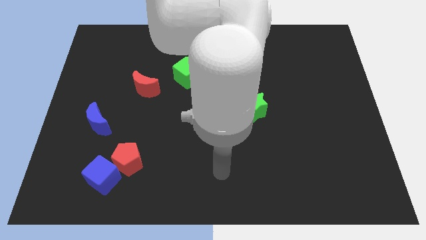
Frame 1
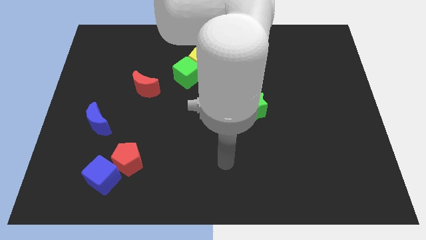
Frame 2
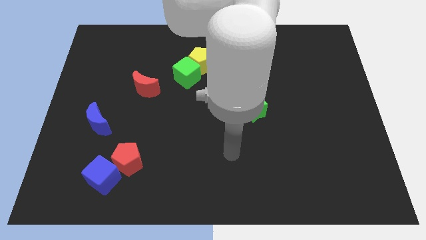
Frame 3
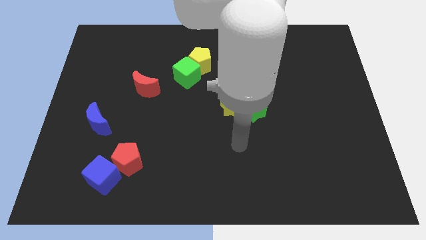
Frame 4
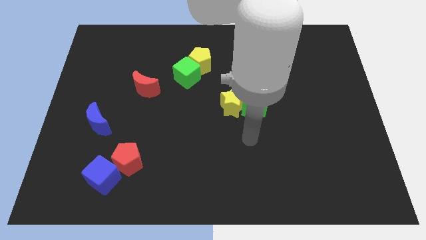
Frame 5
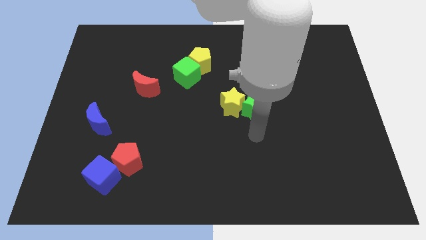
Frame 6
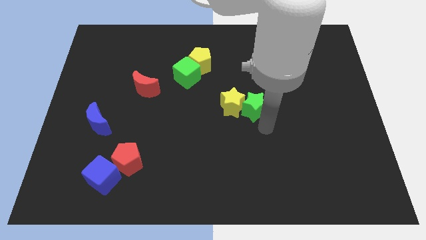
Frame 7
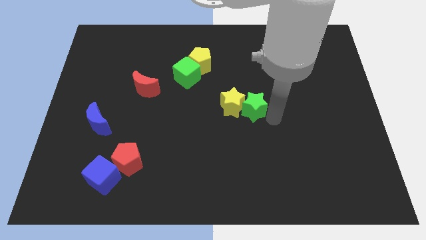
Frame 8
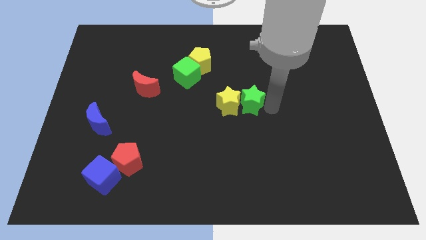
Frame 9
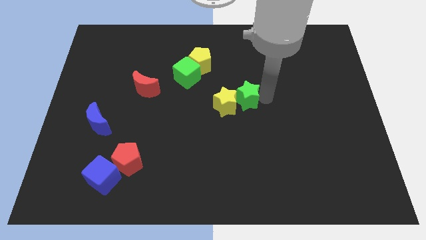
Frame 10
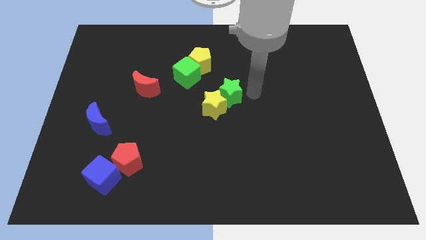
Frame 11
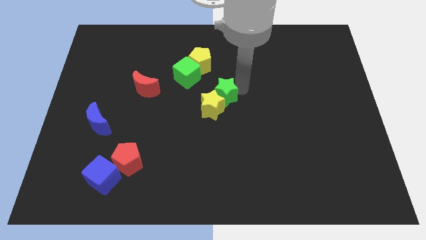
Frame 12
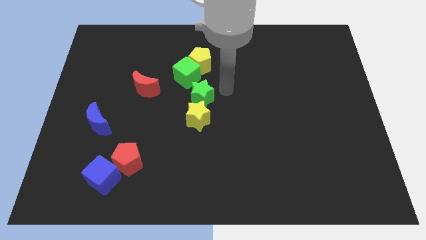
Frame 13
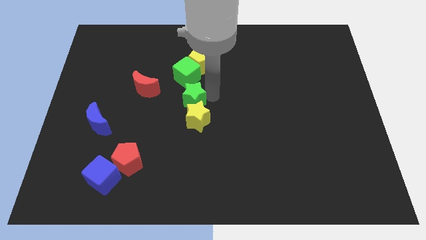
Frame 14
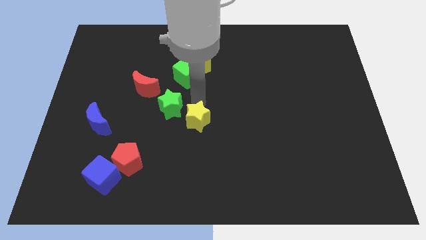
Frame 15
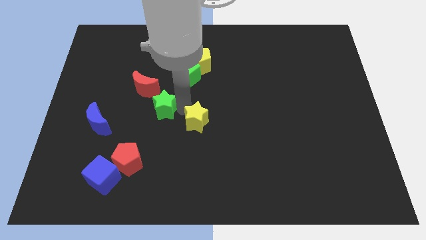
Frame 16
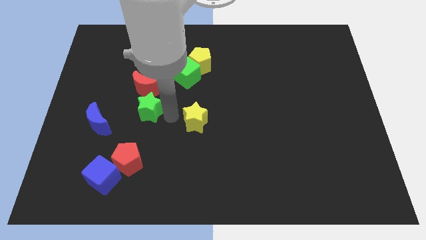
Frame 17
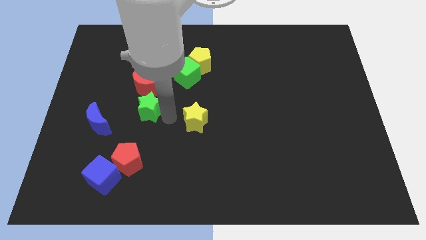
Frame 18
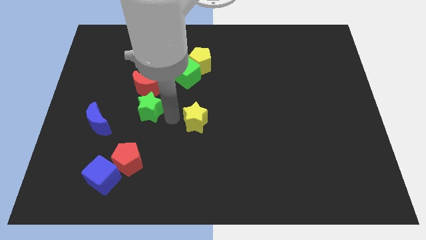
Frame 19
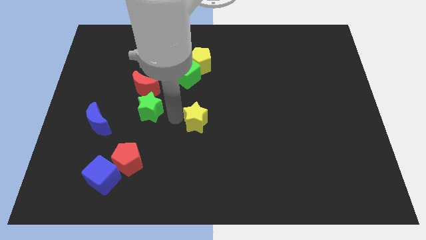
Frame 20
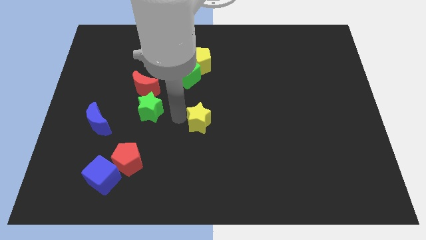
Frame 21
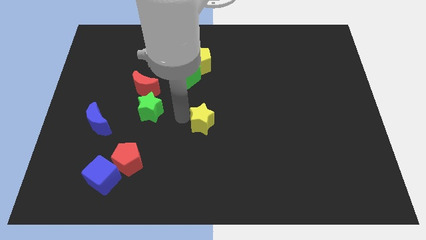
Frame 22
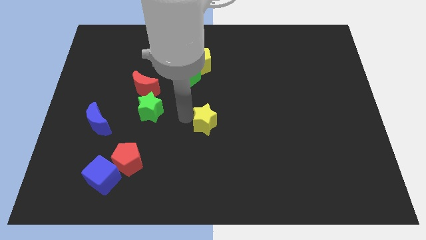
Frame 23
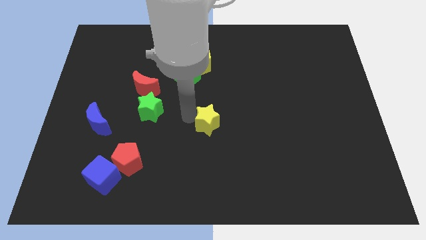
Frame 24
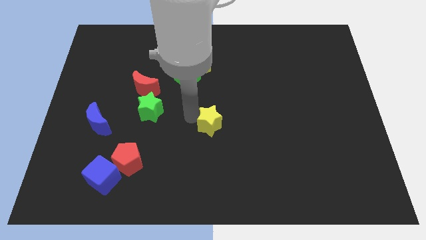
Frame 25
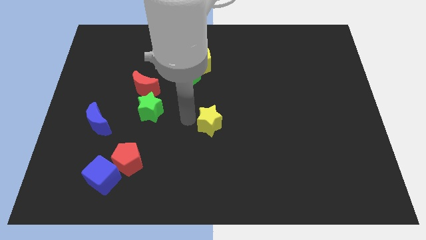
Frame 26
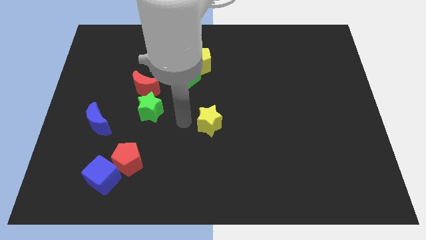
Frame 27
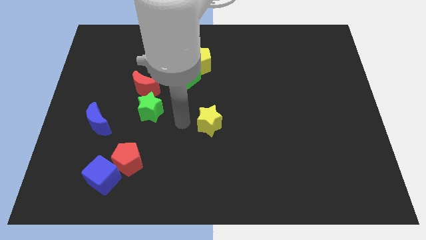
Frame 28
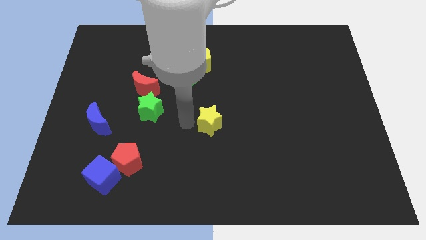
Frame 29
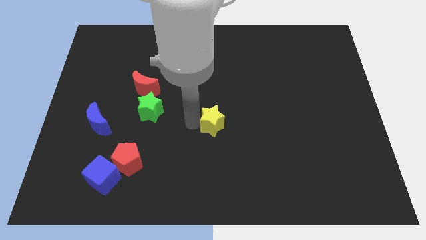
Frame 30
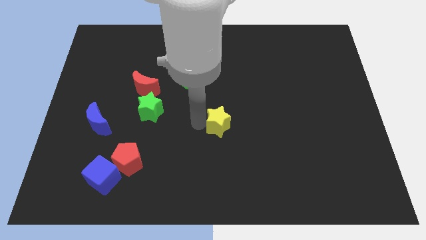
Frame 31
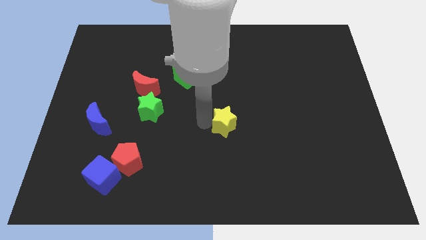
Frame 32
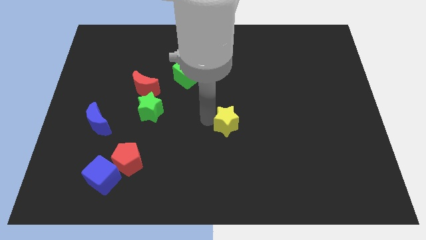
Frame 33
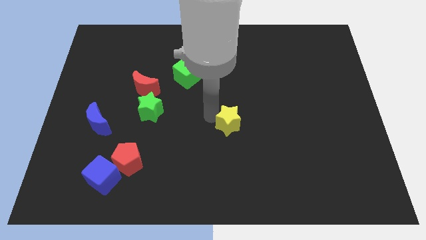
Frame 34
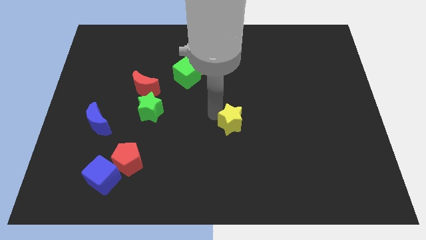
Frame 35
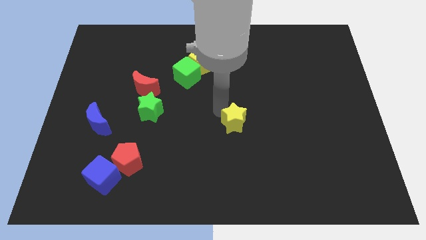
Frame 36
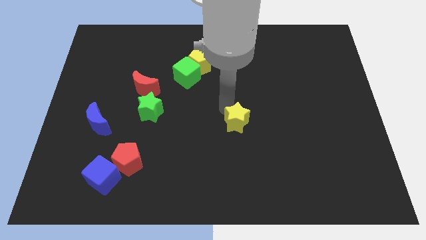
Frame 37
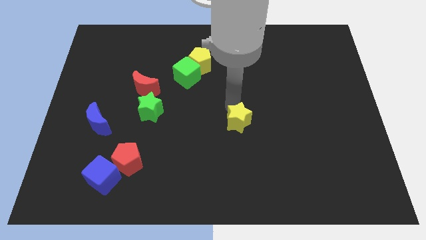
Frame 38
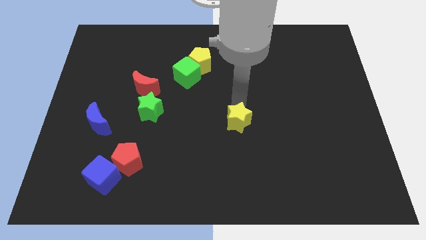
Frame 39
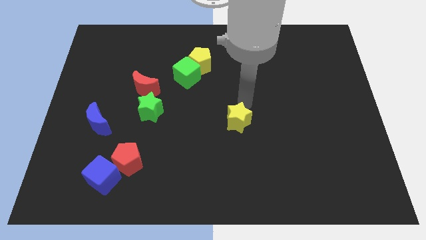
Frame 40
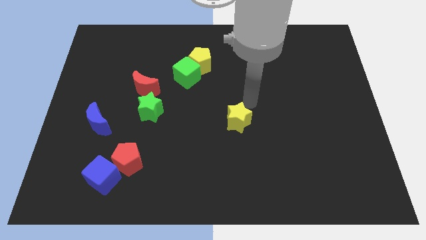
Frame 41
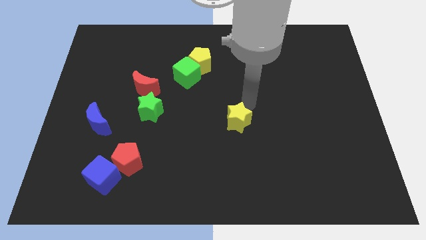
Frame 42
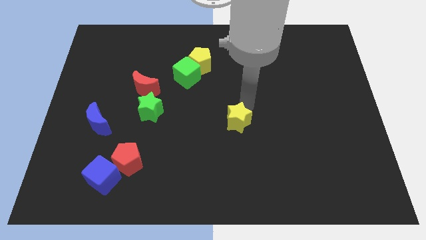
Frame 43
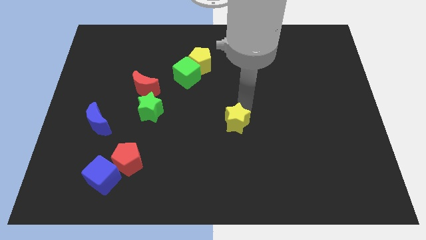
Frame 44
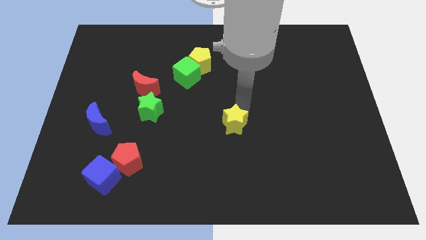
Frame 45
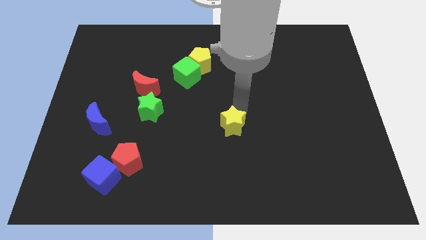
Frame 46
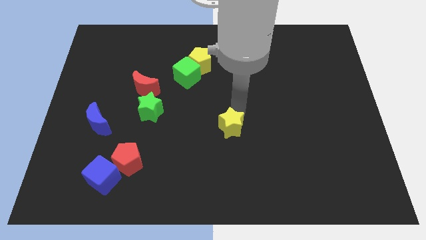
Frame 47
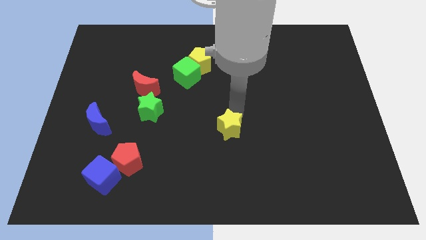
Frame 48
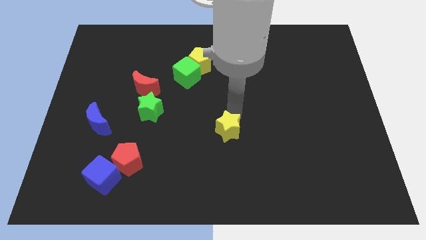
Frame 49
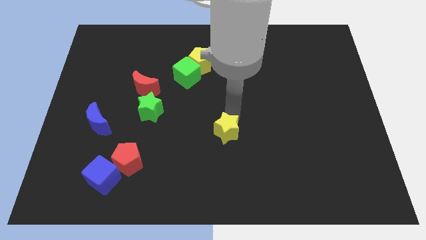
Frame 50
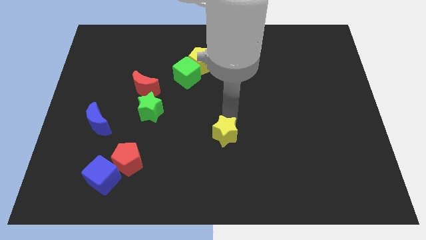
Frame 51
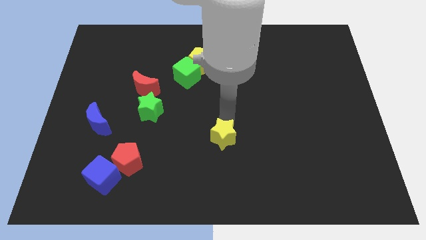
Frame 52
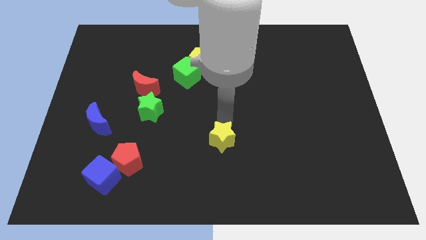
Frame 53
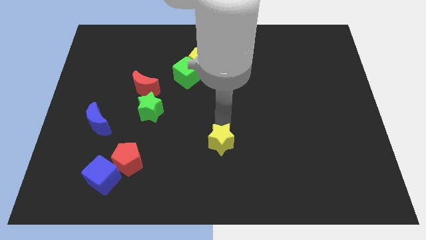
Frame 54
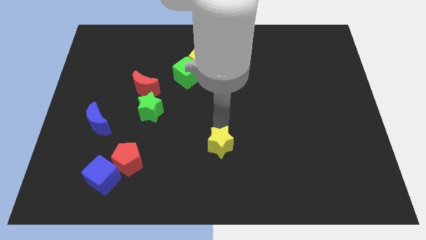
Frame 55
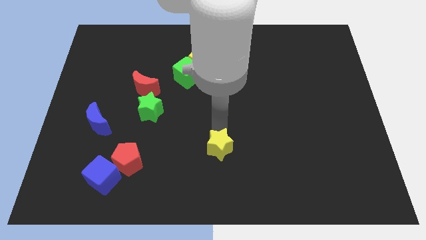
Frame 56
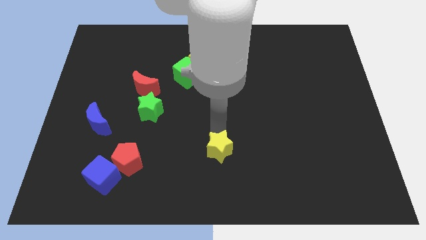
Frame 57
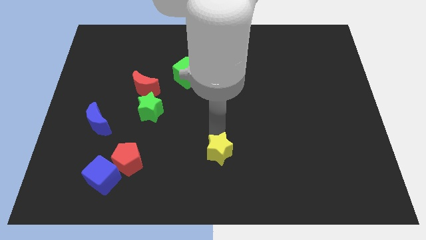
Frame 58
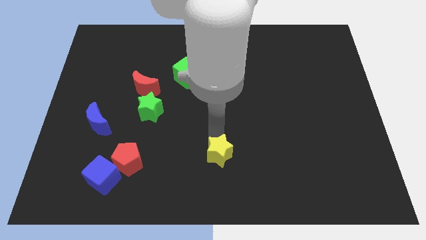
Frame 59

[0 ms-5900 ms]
move the yellow star to the bottom side

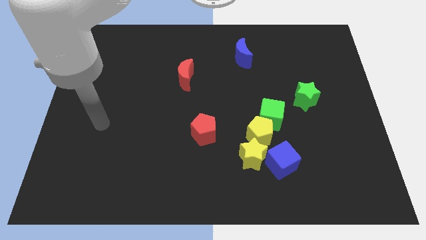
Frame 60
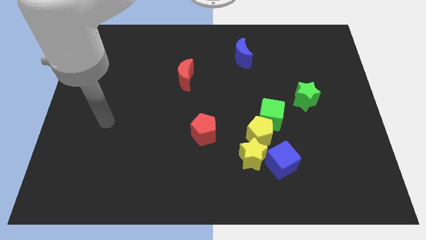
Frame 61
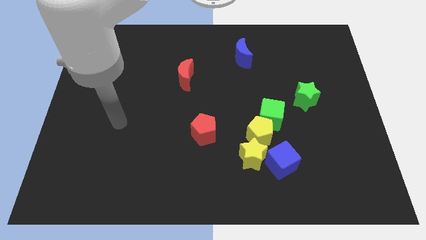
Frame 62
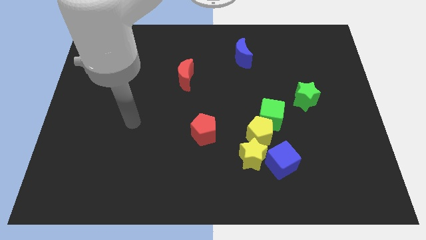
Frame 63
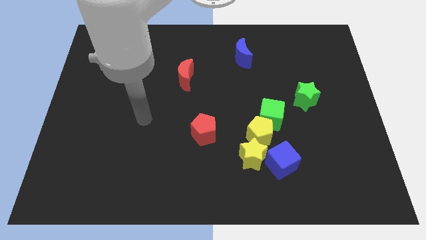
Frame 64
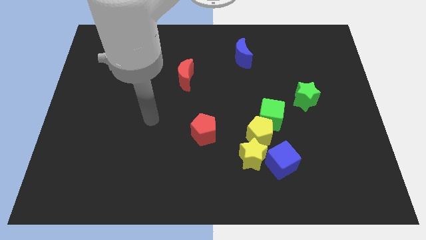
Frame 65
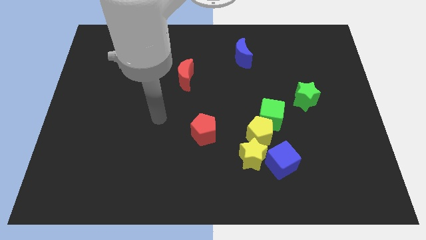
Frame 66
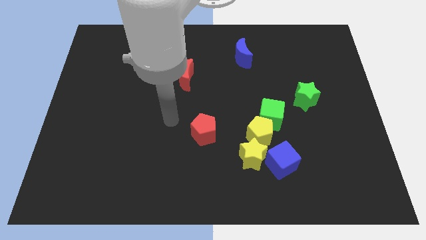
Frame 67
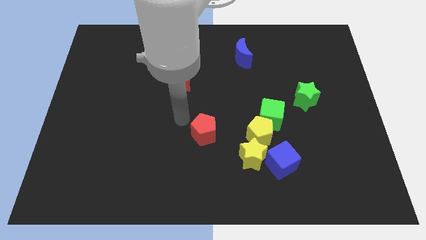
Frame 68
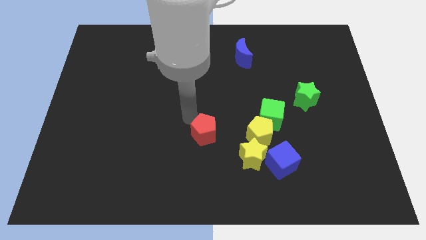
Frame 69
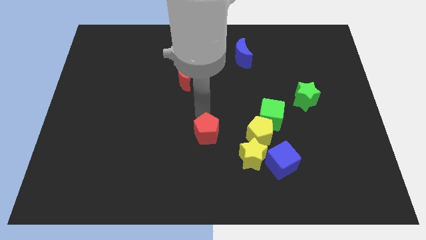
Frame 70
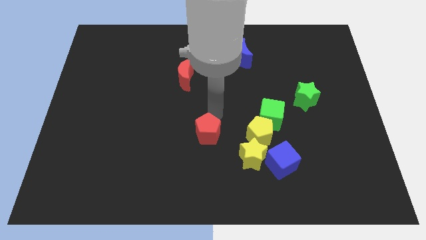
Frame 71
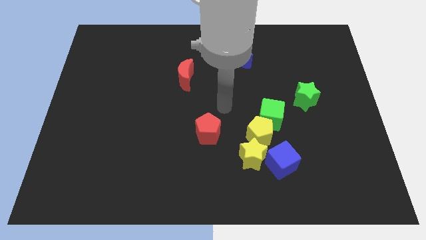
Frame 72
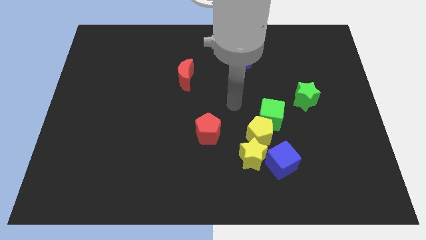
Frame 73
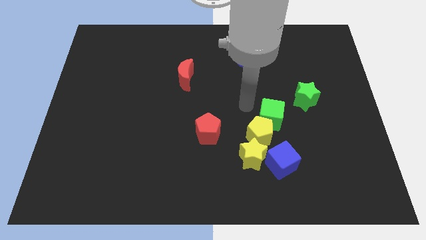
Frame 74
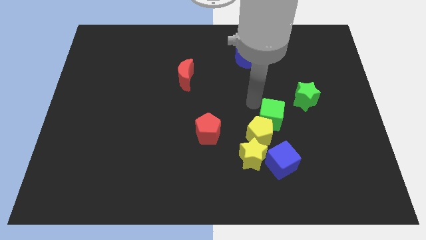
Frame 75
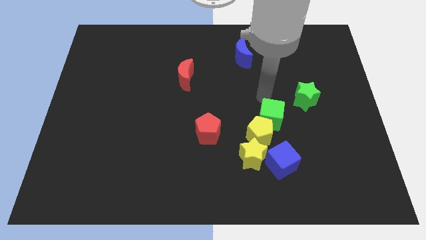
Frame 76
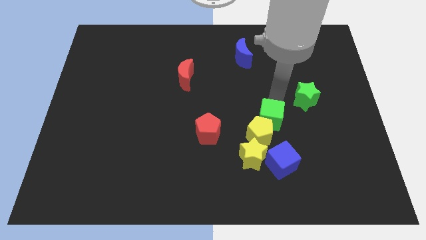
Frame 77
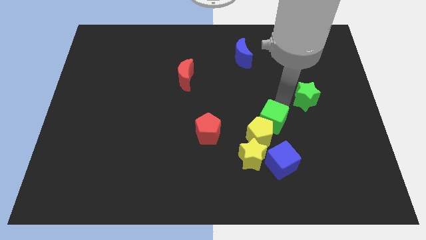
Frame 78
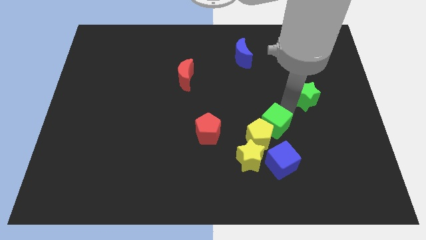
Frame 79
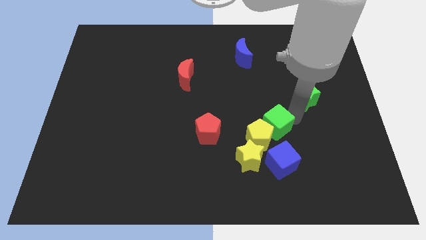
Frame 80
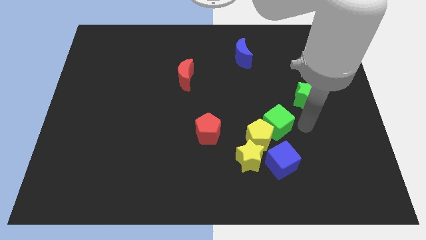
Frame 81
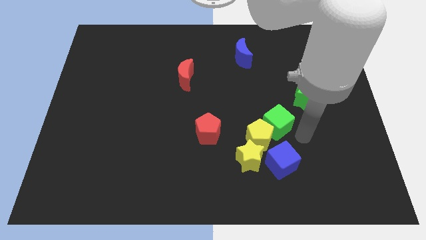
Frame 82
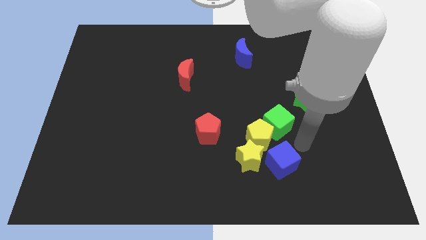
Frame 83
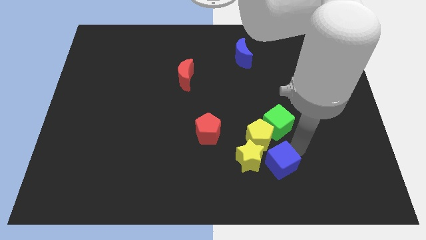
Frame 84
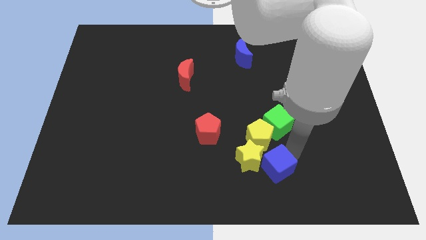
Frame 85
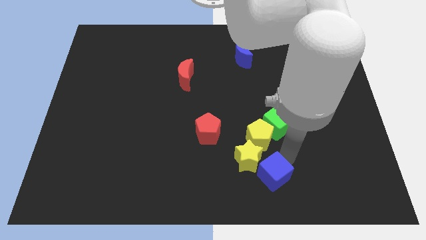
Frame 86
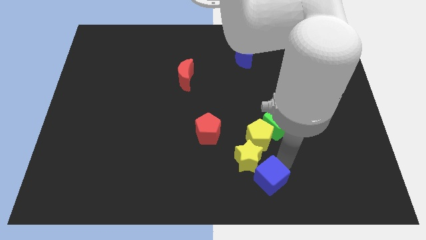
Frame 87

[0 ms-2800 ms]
move the blue cube to the bottom side
